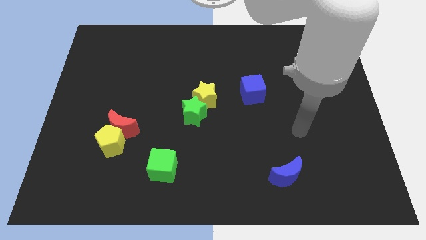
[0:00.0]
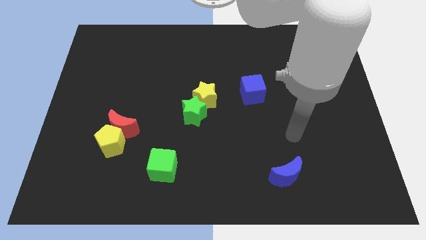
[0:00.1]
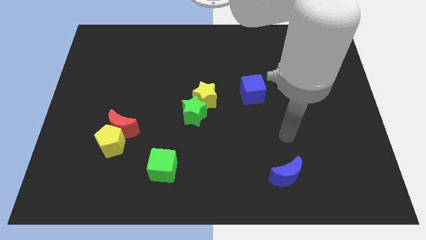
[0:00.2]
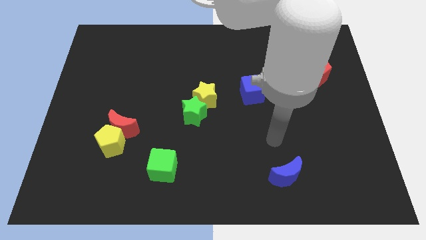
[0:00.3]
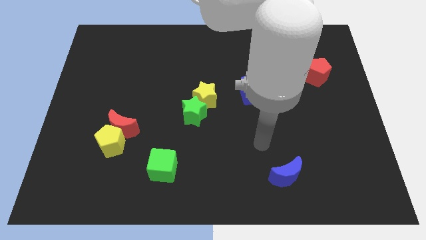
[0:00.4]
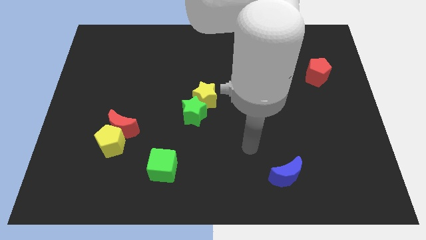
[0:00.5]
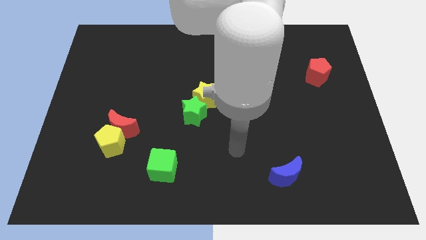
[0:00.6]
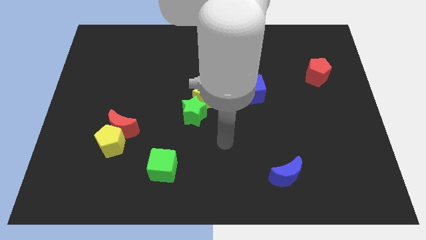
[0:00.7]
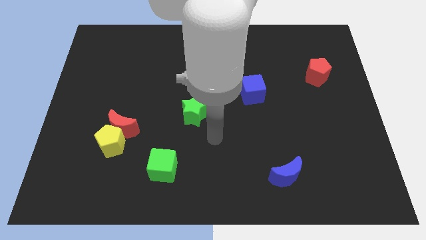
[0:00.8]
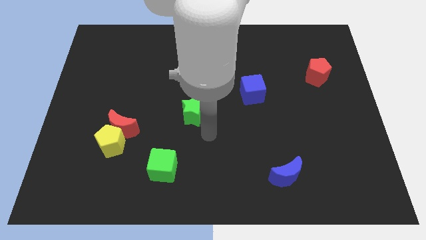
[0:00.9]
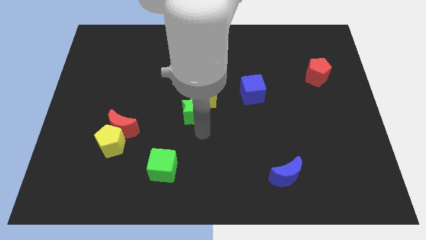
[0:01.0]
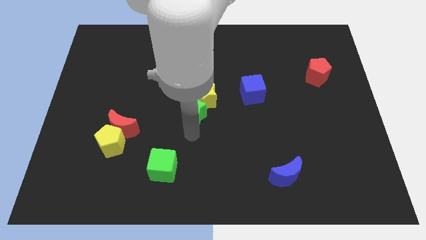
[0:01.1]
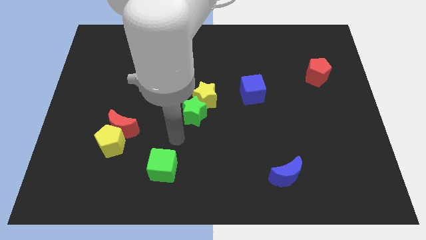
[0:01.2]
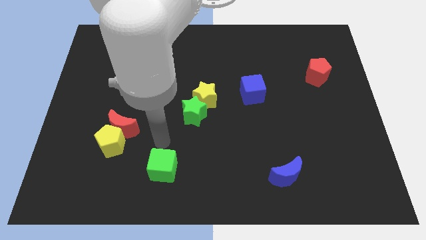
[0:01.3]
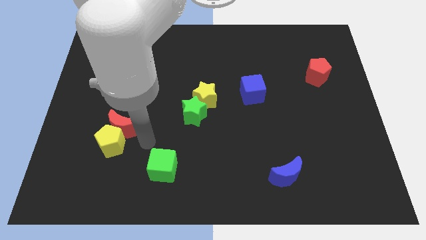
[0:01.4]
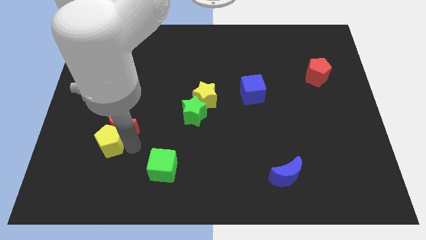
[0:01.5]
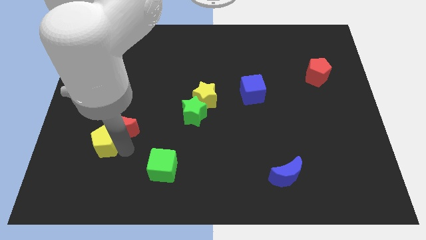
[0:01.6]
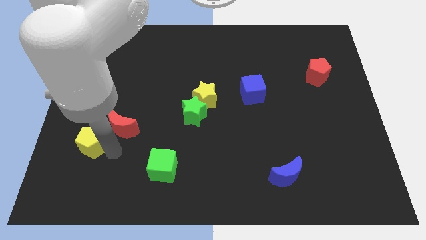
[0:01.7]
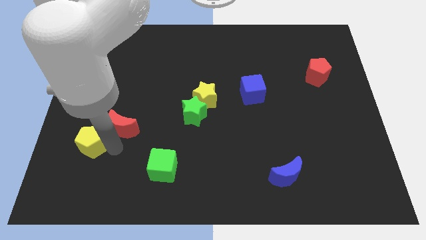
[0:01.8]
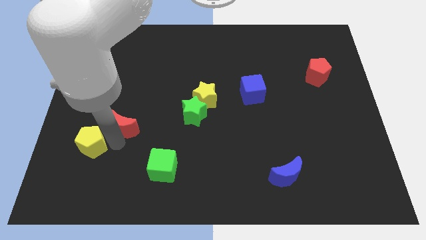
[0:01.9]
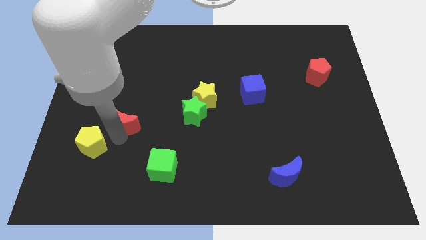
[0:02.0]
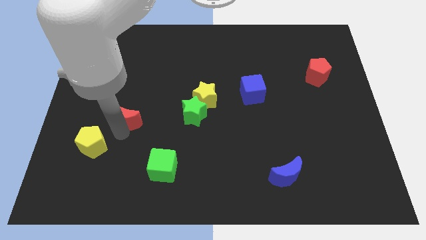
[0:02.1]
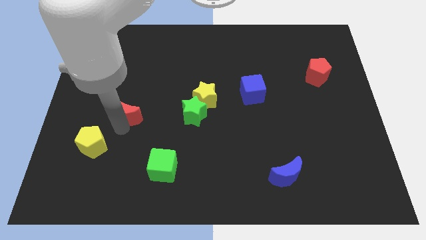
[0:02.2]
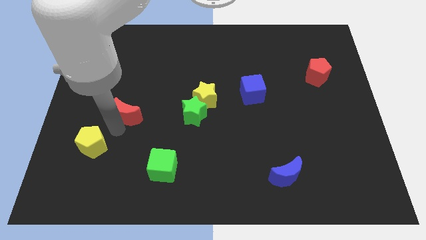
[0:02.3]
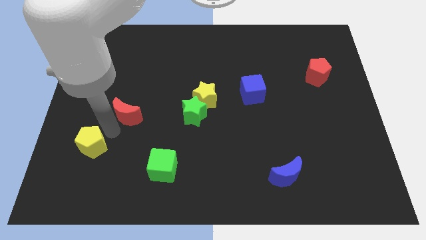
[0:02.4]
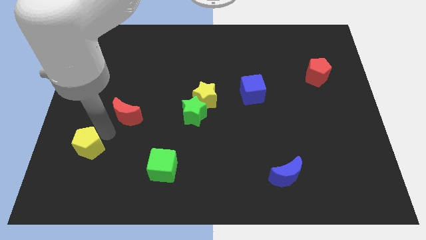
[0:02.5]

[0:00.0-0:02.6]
separate the red moon from the yellow pentagon

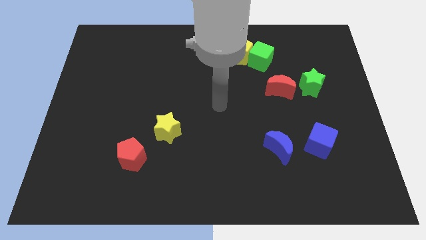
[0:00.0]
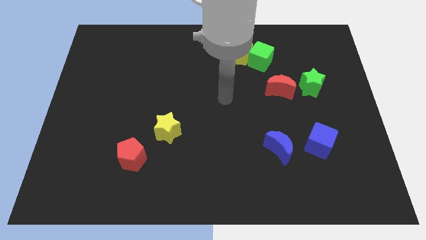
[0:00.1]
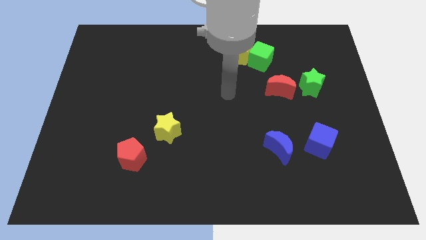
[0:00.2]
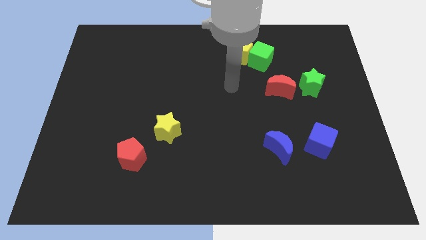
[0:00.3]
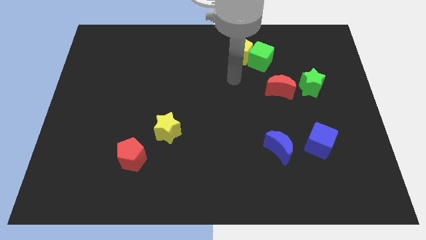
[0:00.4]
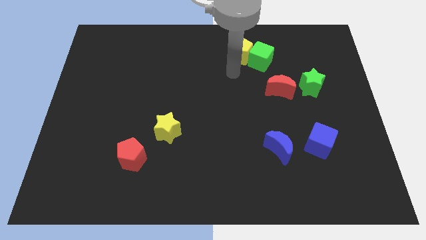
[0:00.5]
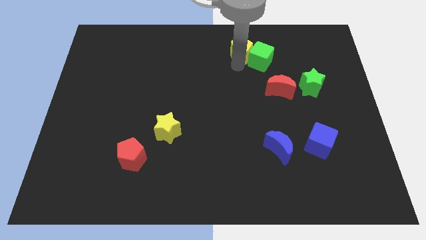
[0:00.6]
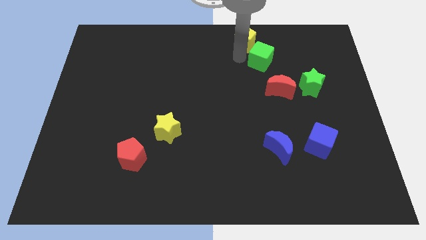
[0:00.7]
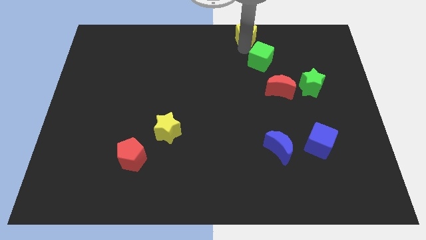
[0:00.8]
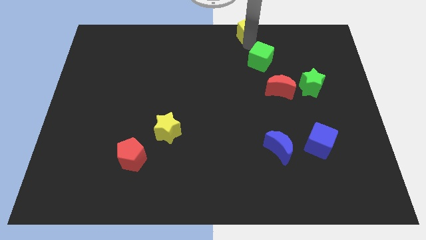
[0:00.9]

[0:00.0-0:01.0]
pull the green cube apart from the yellow pentagon

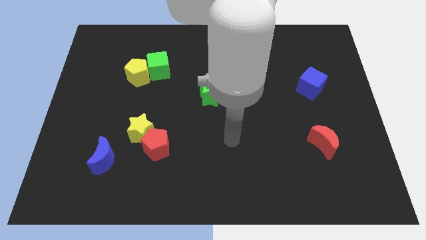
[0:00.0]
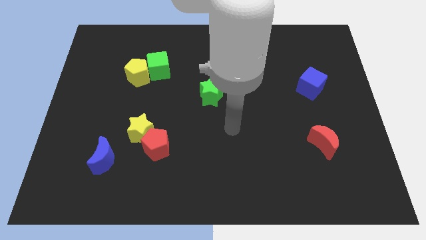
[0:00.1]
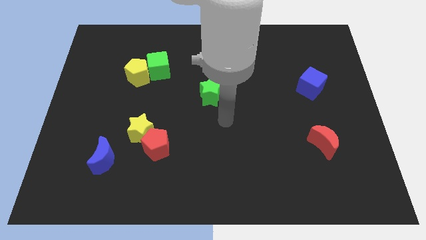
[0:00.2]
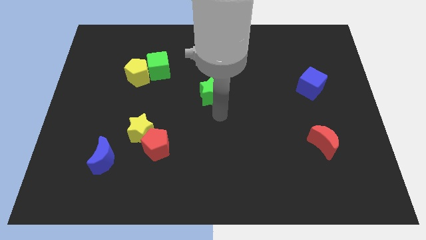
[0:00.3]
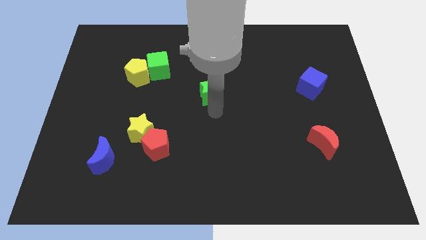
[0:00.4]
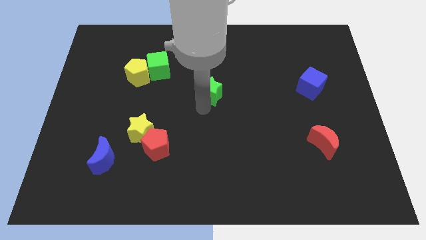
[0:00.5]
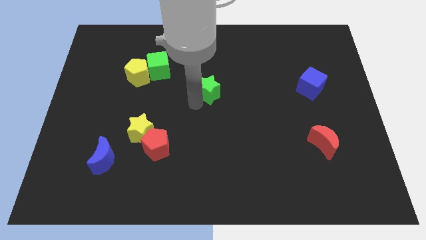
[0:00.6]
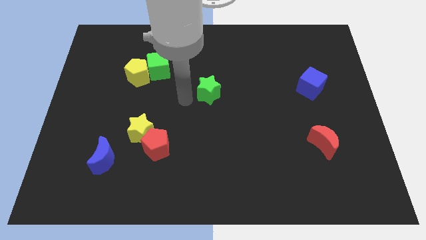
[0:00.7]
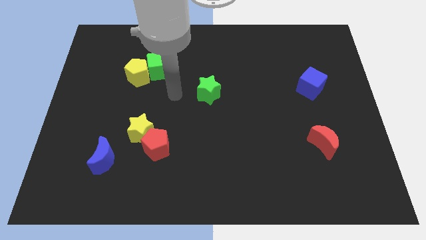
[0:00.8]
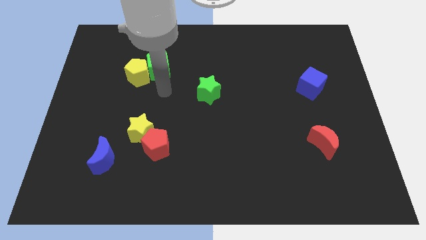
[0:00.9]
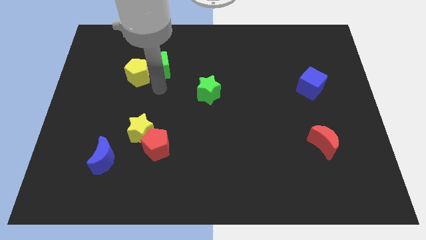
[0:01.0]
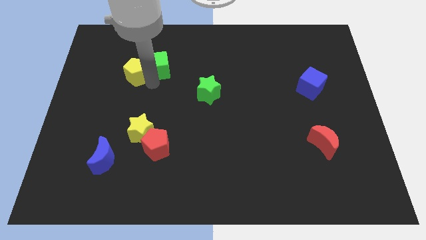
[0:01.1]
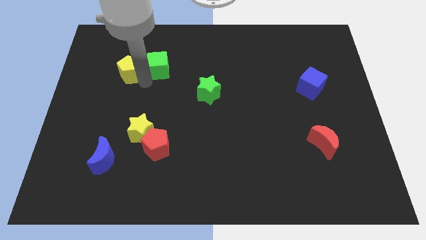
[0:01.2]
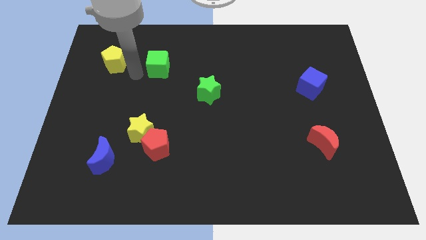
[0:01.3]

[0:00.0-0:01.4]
separate the green cube from the yellow pentagon

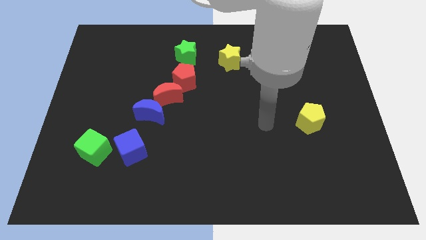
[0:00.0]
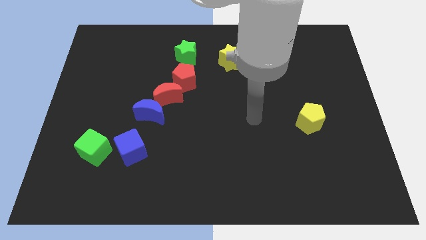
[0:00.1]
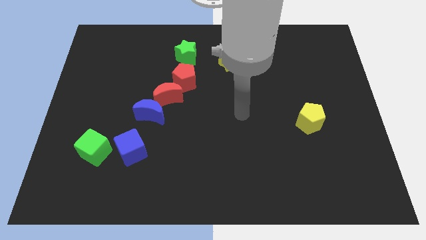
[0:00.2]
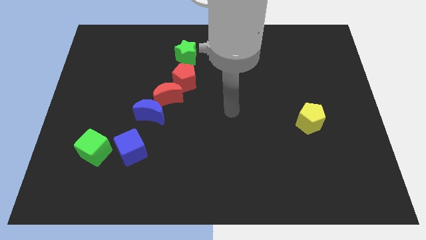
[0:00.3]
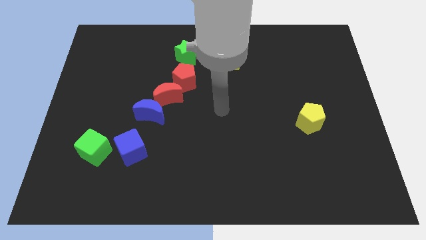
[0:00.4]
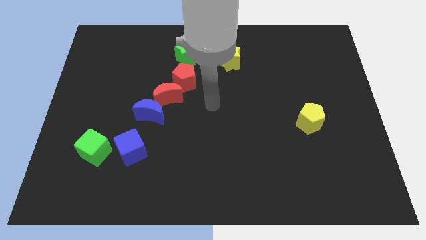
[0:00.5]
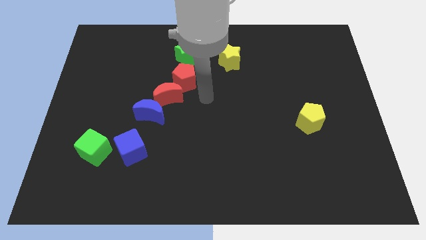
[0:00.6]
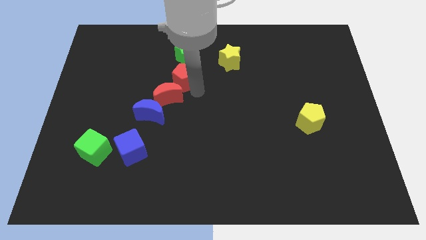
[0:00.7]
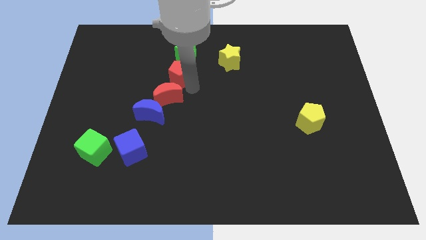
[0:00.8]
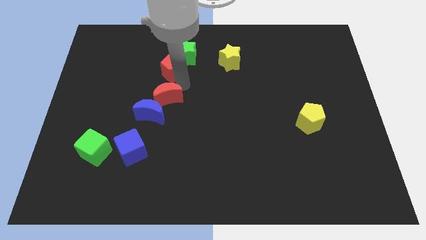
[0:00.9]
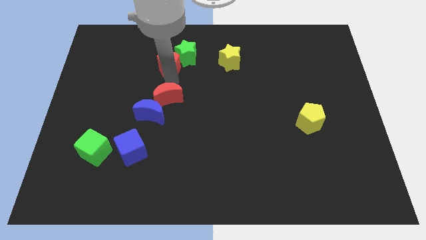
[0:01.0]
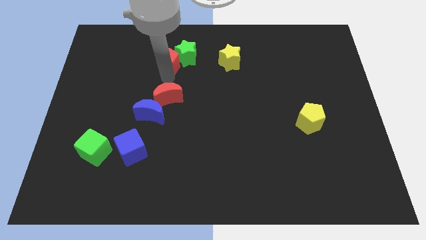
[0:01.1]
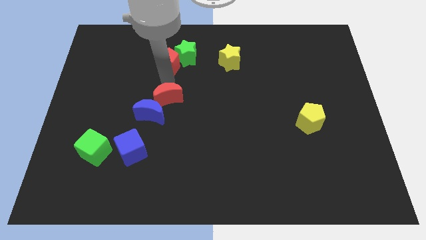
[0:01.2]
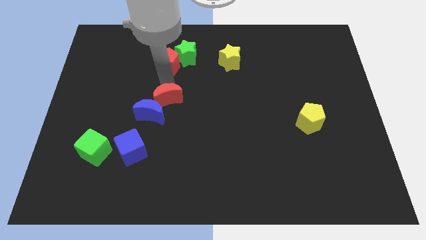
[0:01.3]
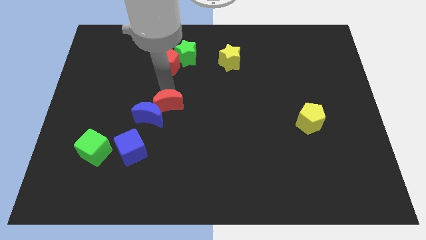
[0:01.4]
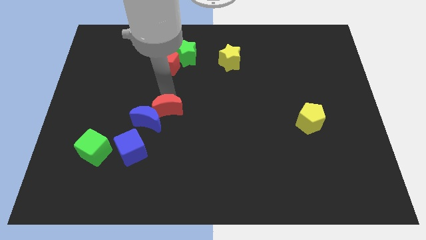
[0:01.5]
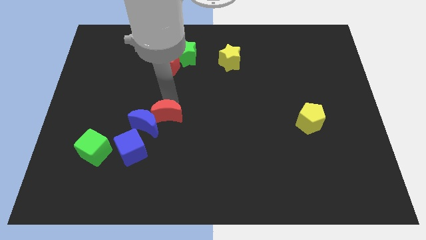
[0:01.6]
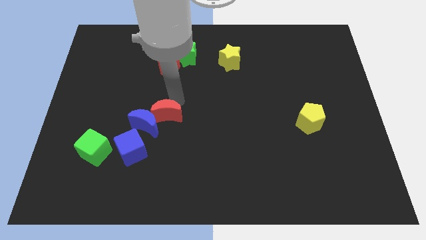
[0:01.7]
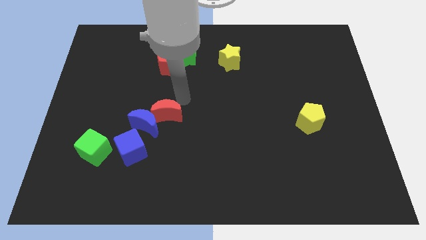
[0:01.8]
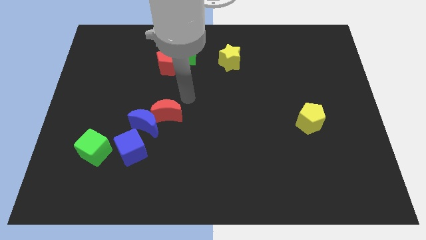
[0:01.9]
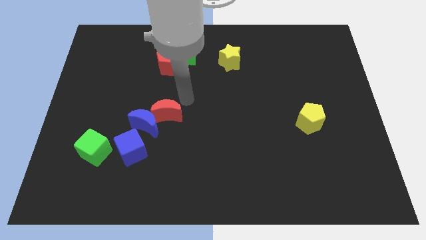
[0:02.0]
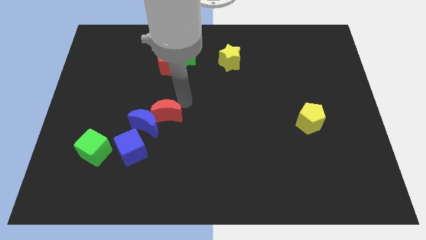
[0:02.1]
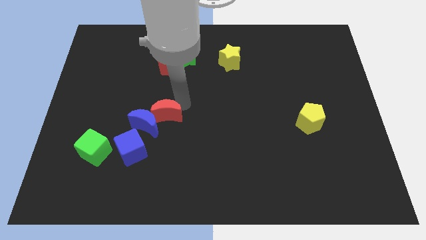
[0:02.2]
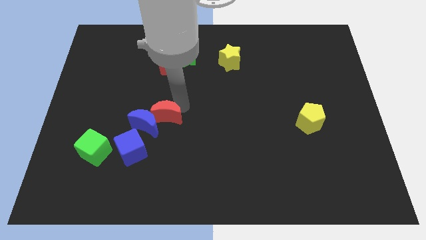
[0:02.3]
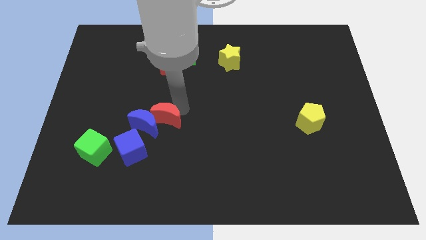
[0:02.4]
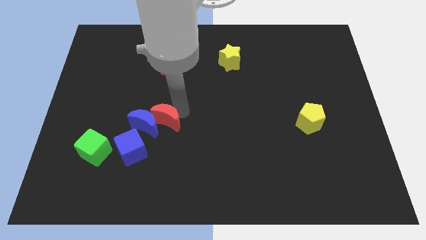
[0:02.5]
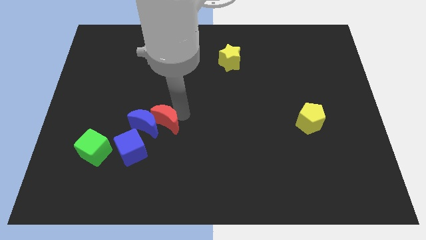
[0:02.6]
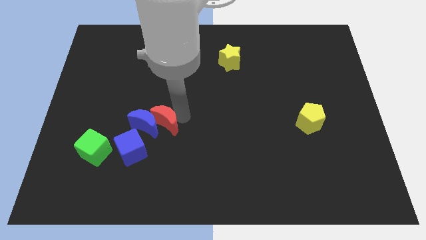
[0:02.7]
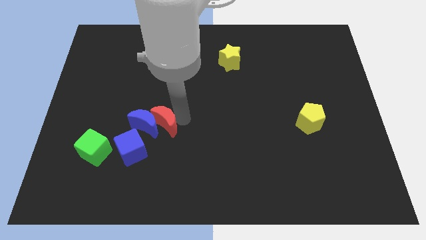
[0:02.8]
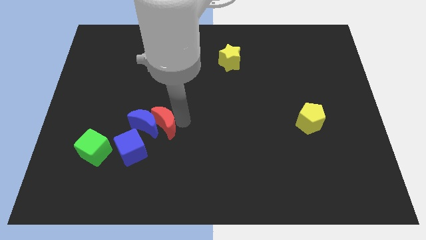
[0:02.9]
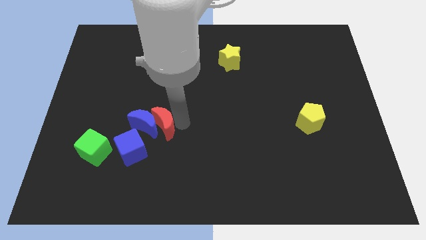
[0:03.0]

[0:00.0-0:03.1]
separate the red moon from the blue moon and red pentagon

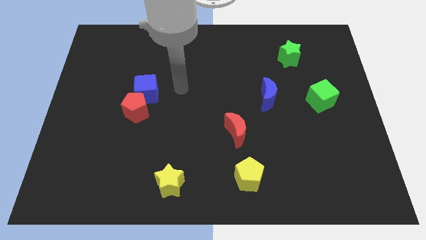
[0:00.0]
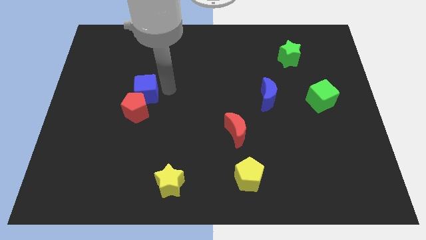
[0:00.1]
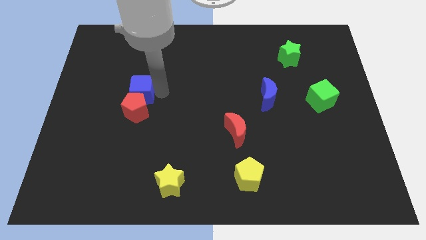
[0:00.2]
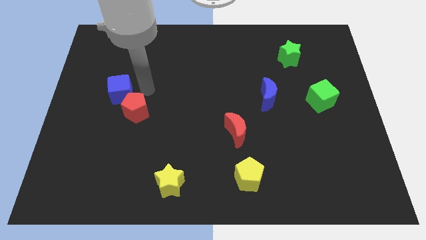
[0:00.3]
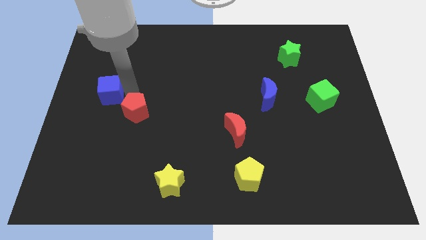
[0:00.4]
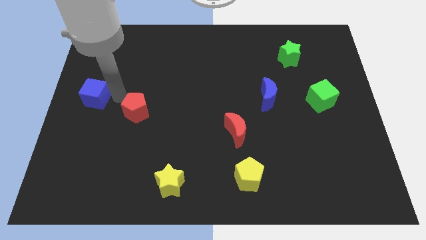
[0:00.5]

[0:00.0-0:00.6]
move the red pentagon away from the blue cube

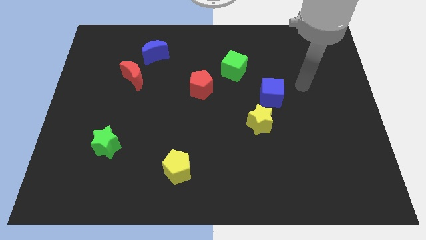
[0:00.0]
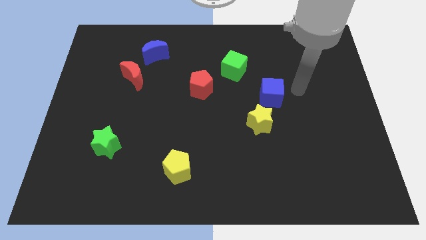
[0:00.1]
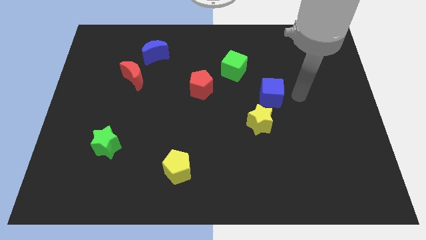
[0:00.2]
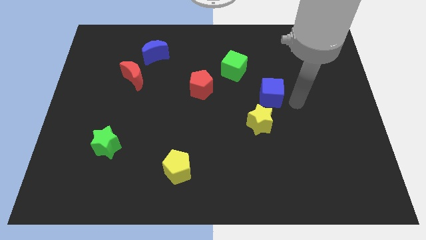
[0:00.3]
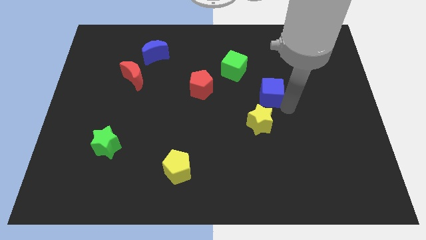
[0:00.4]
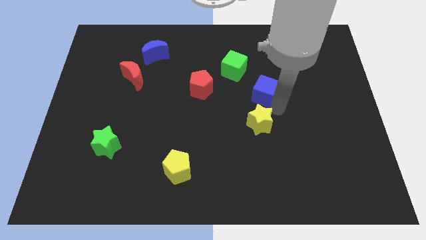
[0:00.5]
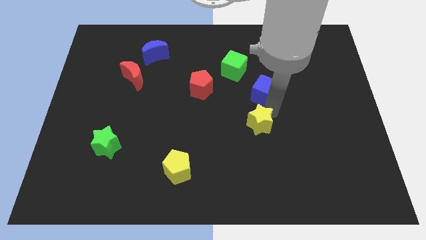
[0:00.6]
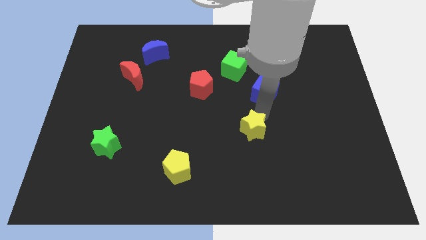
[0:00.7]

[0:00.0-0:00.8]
pull the blue cube apart from the yellow star
